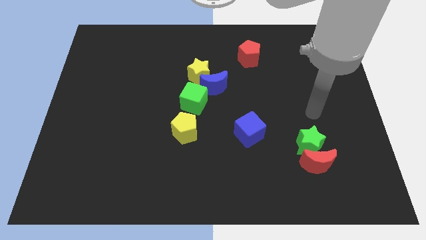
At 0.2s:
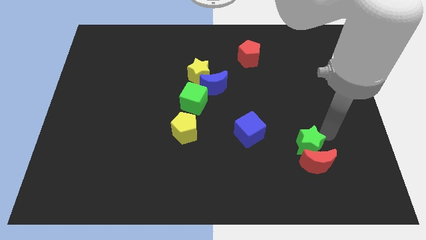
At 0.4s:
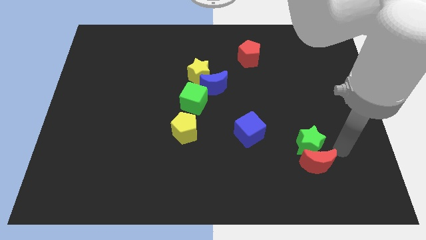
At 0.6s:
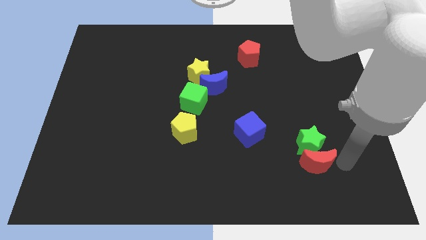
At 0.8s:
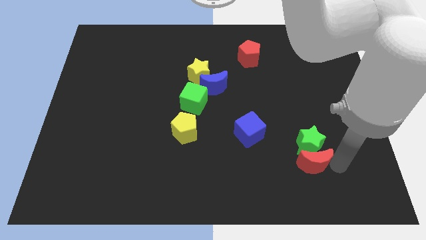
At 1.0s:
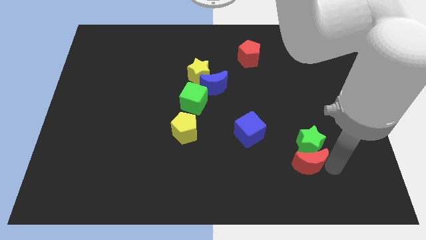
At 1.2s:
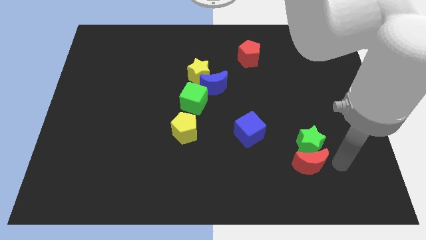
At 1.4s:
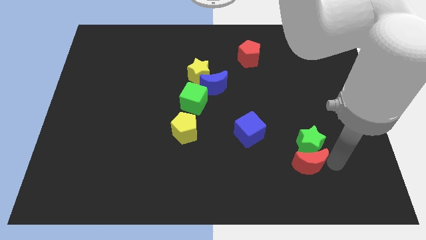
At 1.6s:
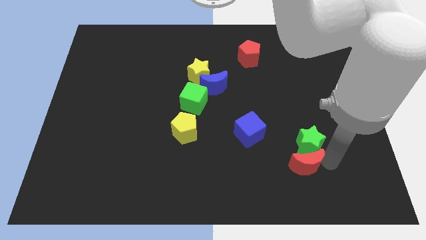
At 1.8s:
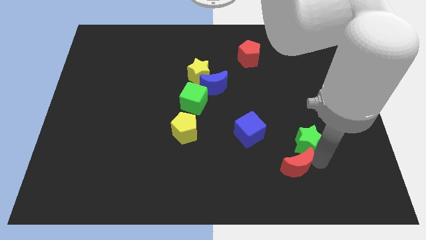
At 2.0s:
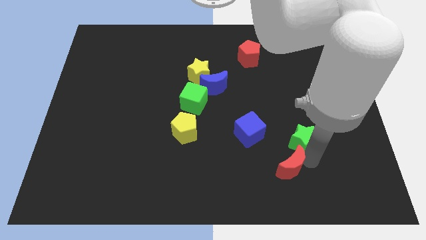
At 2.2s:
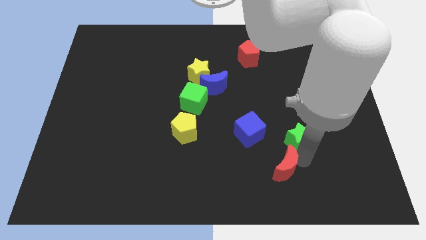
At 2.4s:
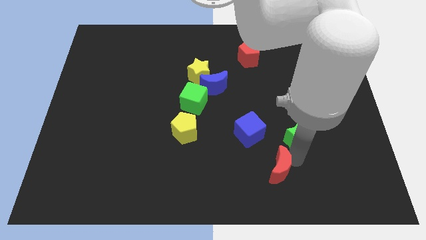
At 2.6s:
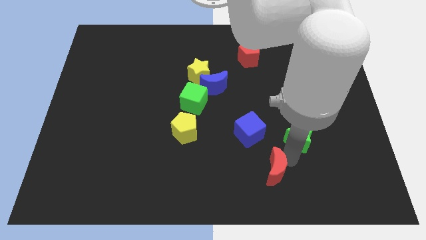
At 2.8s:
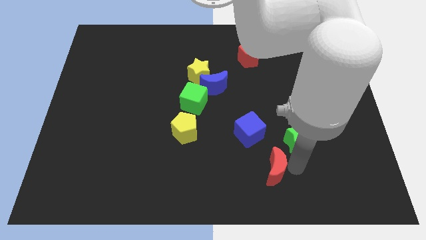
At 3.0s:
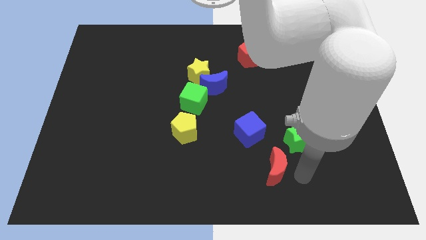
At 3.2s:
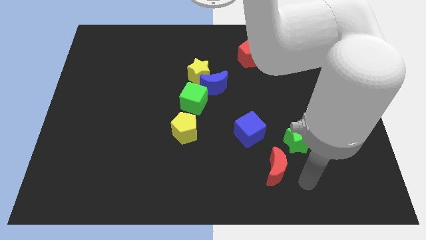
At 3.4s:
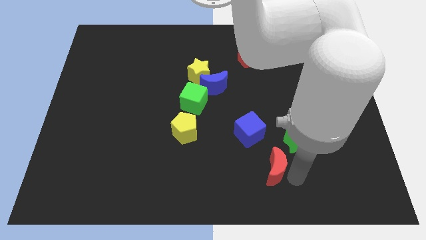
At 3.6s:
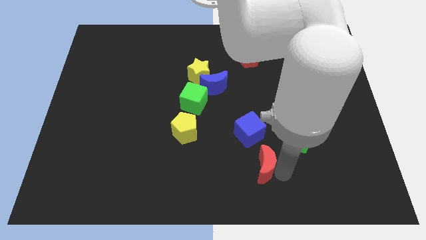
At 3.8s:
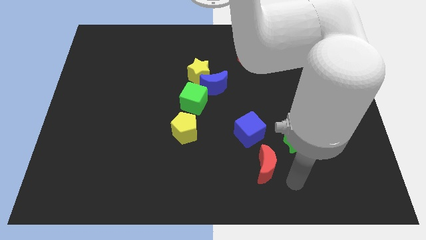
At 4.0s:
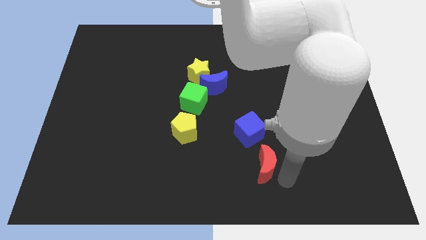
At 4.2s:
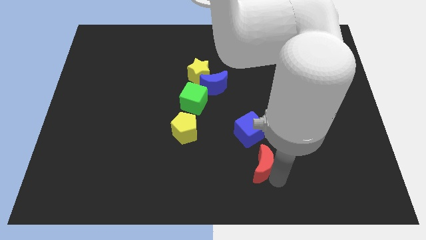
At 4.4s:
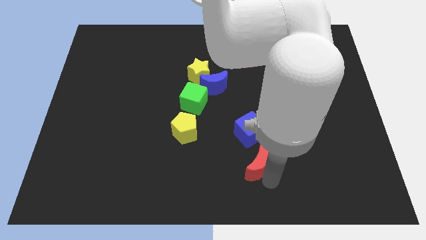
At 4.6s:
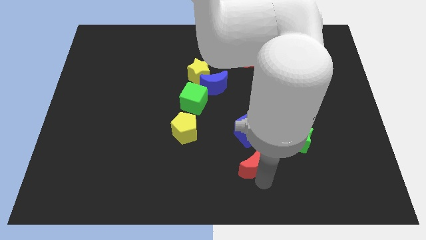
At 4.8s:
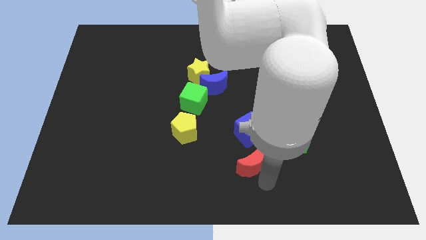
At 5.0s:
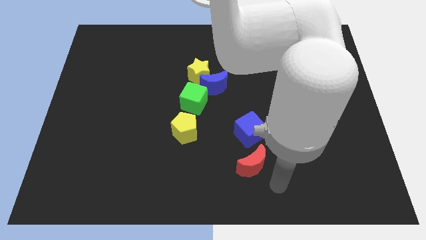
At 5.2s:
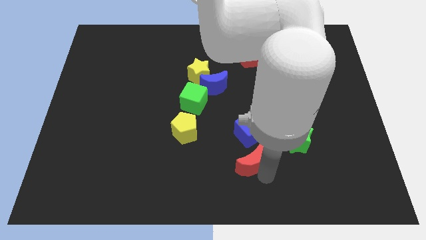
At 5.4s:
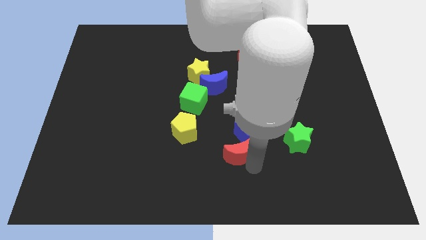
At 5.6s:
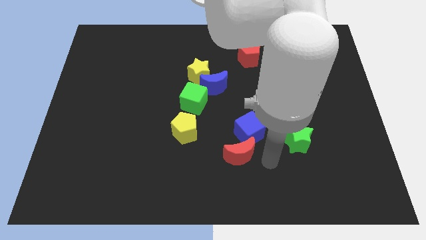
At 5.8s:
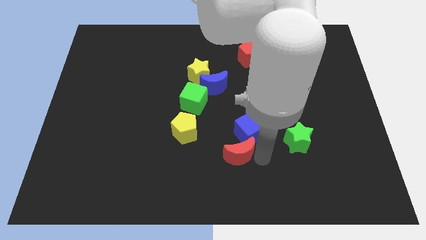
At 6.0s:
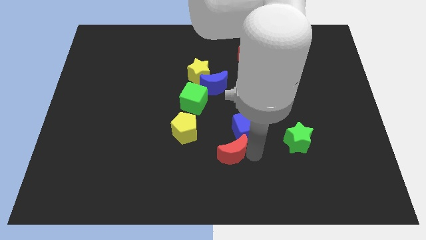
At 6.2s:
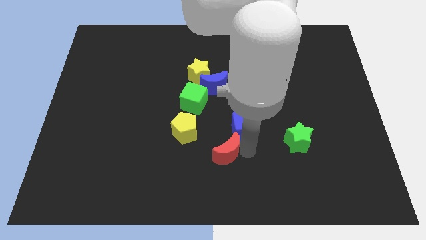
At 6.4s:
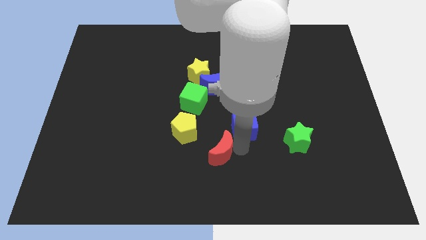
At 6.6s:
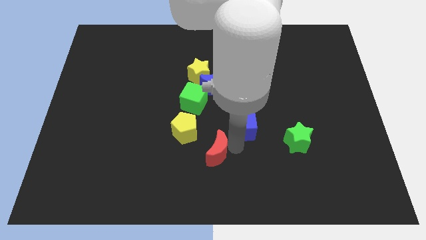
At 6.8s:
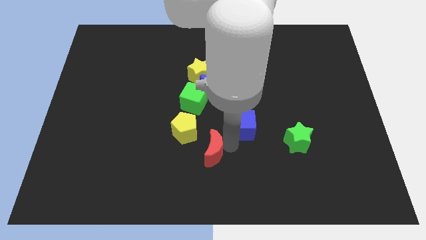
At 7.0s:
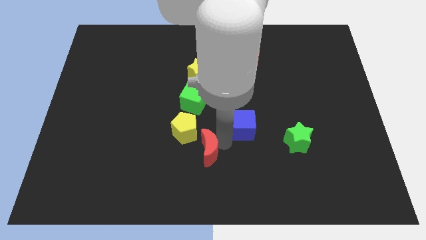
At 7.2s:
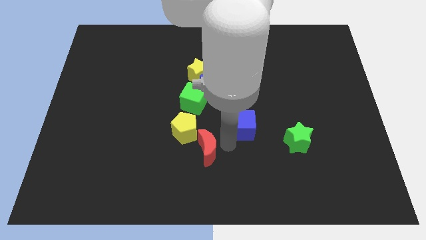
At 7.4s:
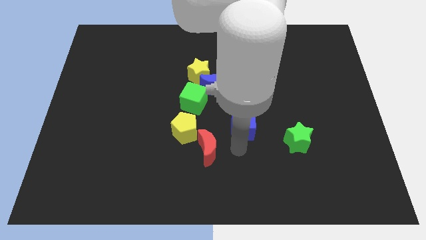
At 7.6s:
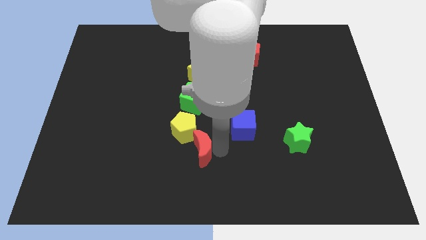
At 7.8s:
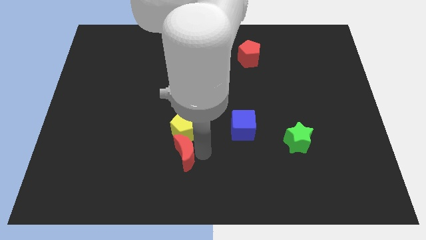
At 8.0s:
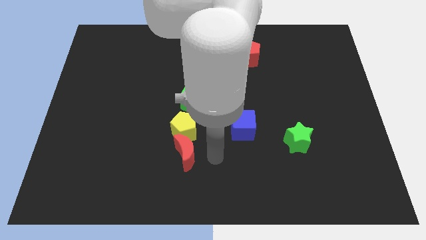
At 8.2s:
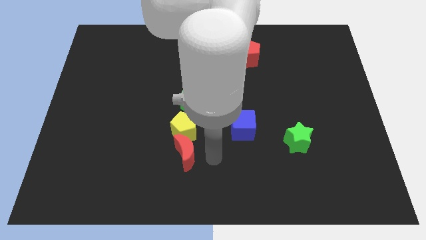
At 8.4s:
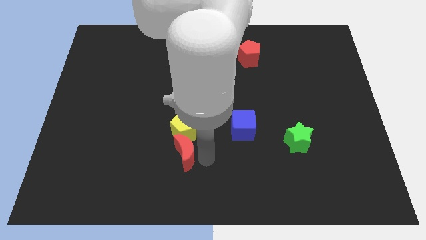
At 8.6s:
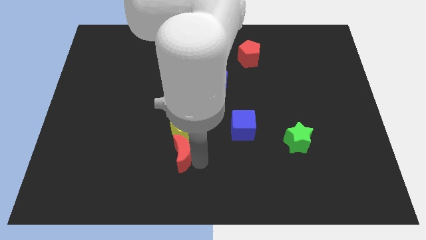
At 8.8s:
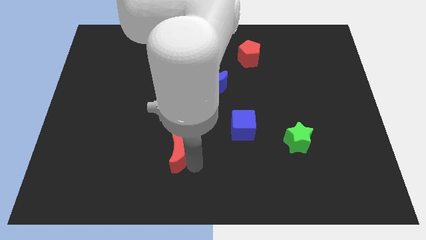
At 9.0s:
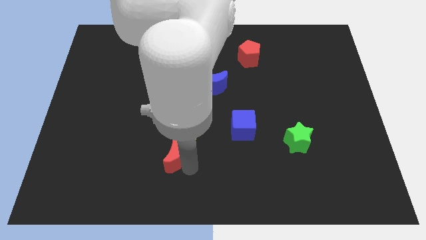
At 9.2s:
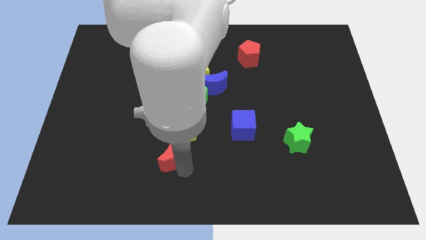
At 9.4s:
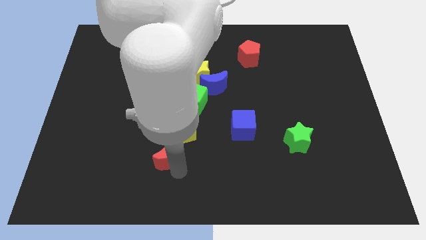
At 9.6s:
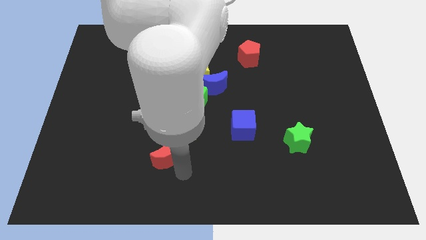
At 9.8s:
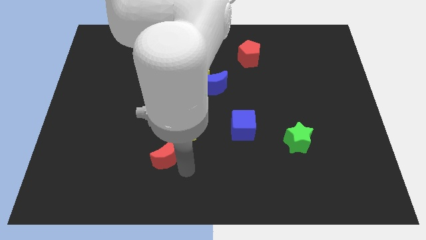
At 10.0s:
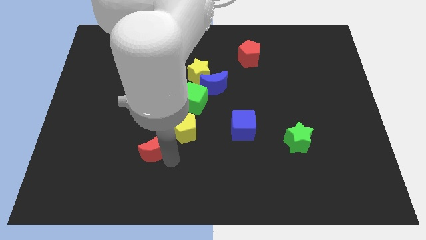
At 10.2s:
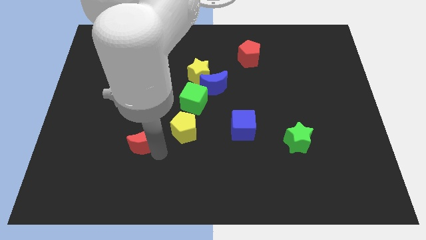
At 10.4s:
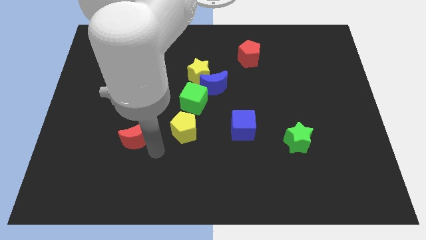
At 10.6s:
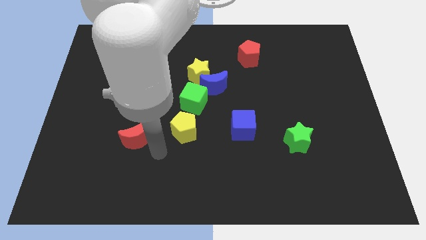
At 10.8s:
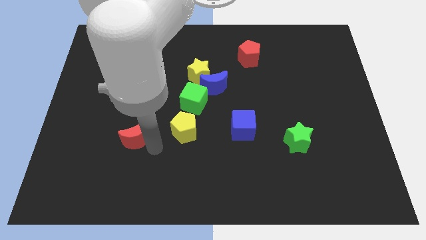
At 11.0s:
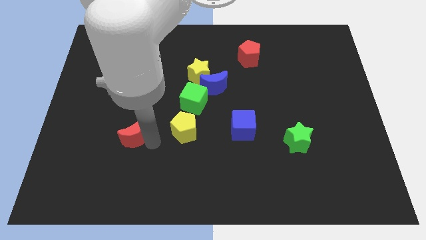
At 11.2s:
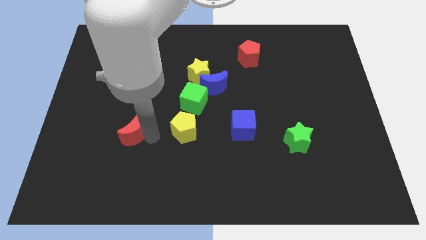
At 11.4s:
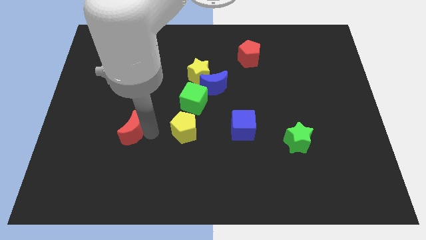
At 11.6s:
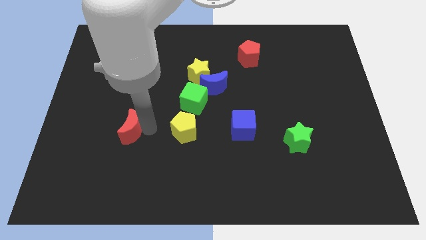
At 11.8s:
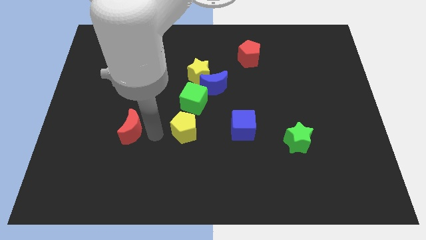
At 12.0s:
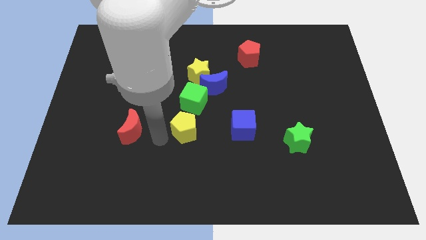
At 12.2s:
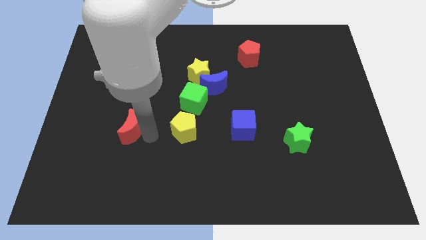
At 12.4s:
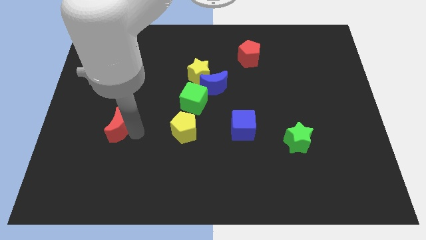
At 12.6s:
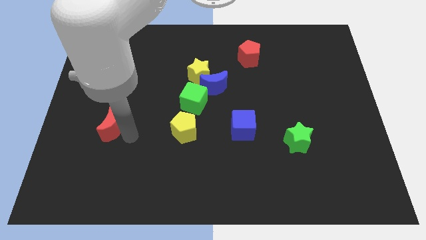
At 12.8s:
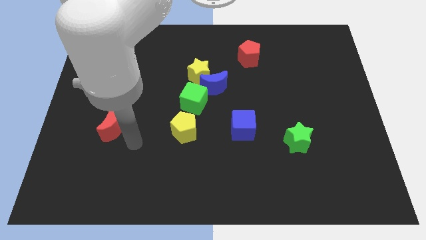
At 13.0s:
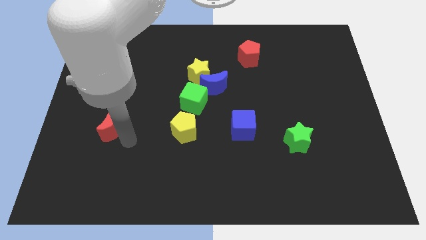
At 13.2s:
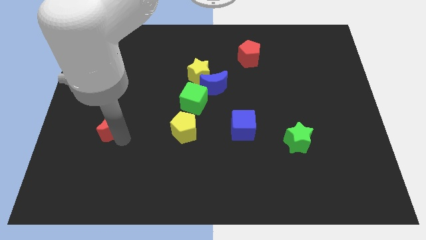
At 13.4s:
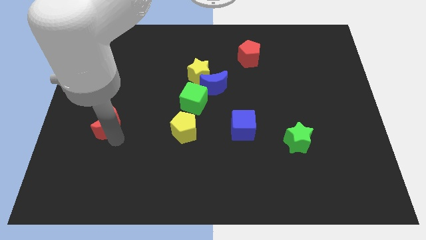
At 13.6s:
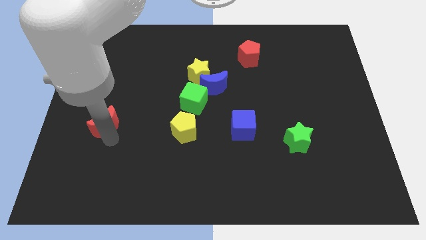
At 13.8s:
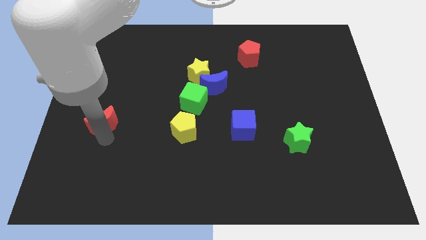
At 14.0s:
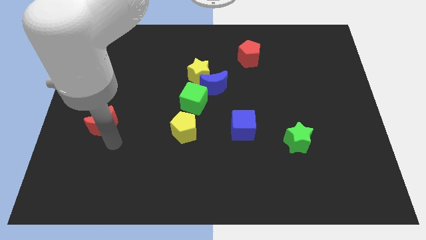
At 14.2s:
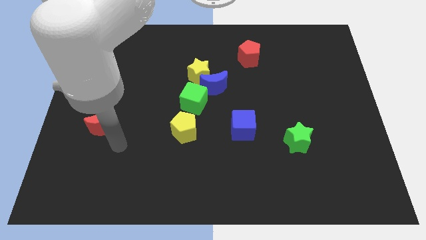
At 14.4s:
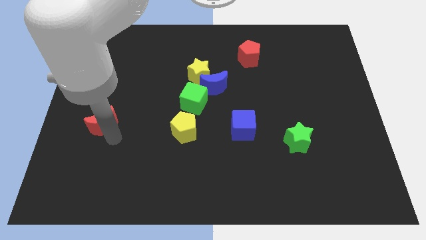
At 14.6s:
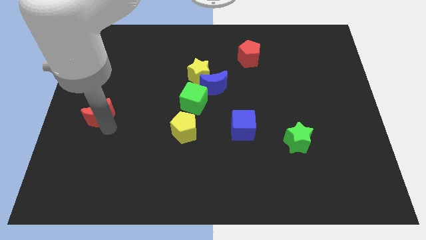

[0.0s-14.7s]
put the red moon to the left side

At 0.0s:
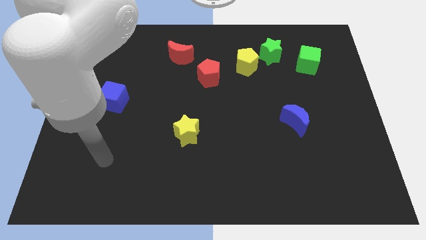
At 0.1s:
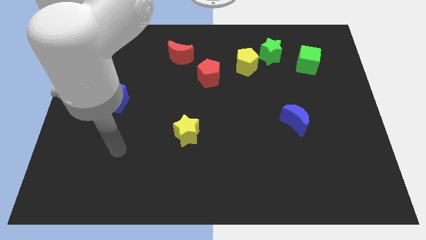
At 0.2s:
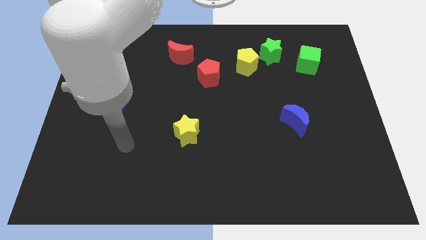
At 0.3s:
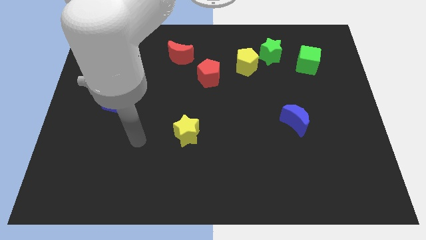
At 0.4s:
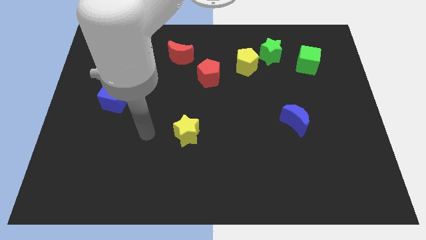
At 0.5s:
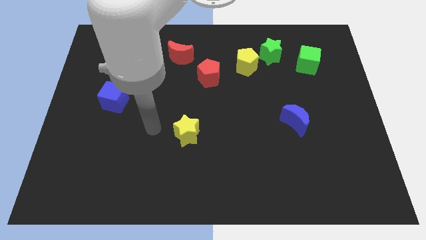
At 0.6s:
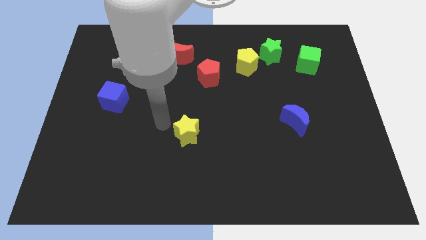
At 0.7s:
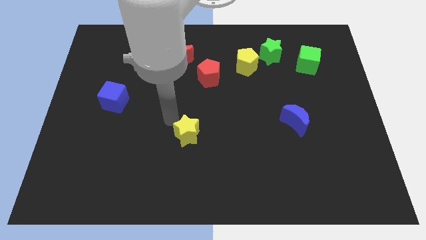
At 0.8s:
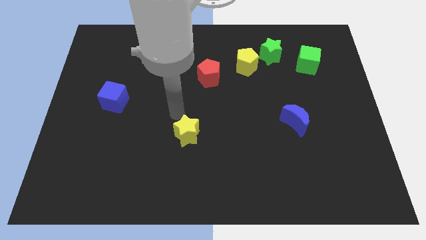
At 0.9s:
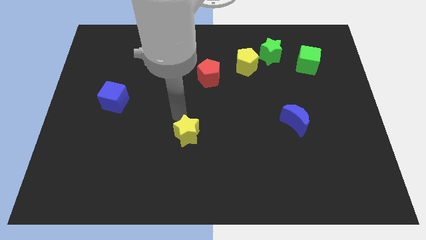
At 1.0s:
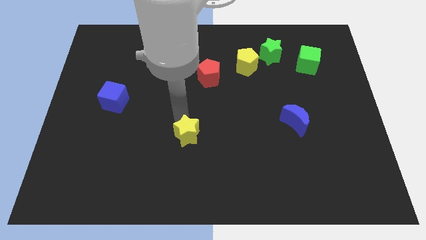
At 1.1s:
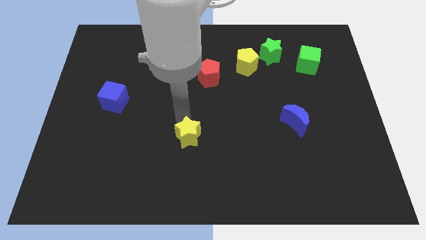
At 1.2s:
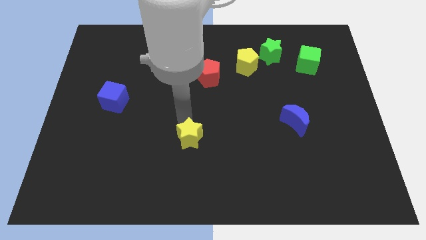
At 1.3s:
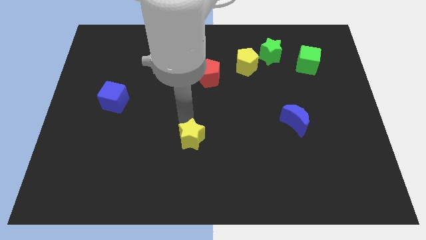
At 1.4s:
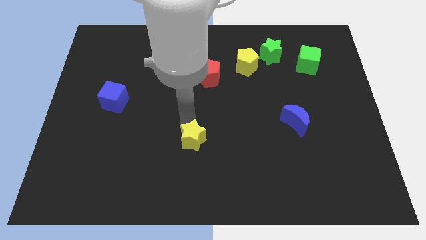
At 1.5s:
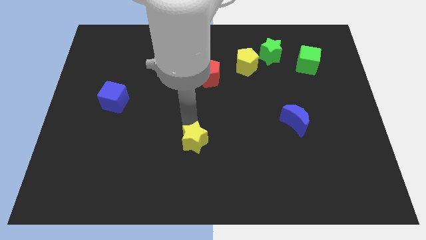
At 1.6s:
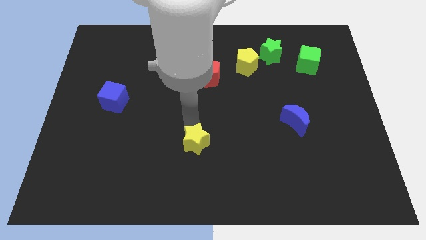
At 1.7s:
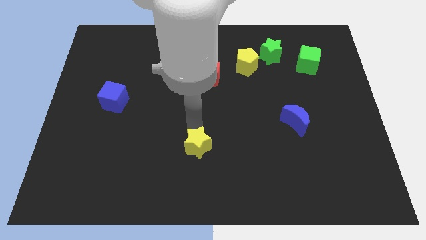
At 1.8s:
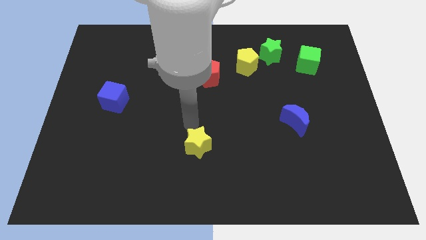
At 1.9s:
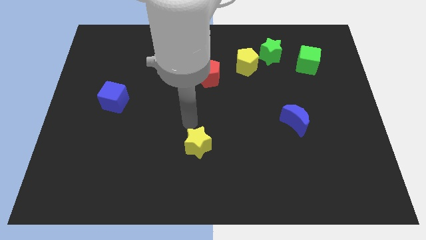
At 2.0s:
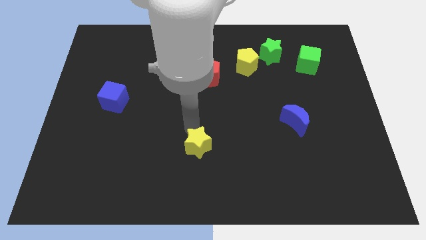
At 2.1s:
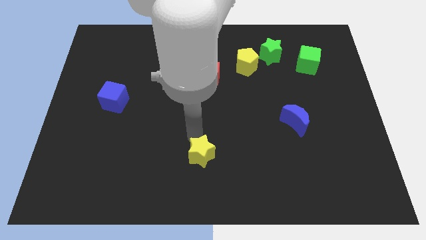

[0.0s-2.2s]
slide the yellow star to the bottom side
